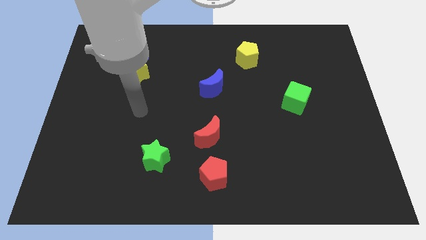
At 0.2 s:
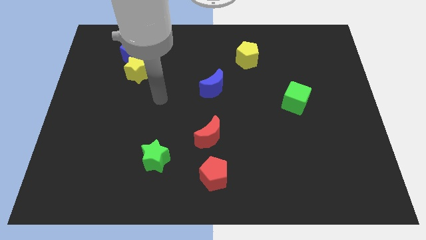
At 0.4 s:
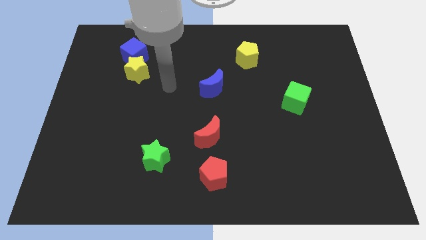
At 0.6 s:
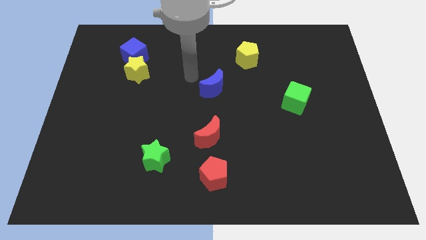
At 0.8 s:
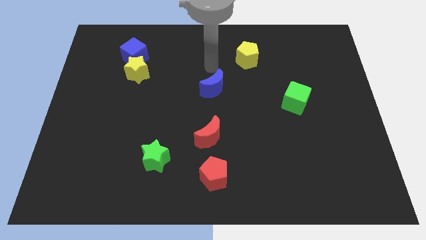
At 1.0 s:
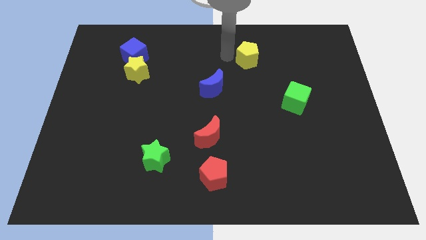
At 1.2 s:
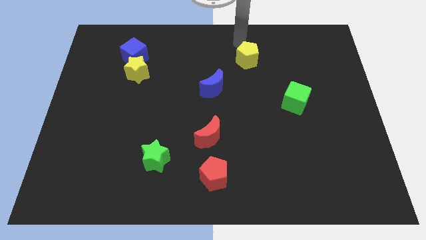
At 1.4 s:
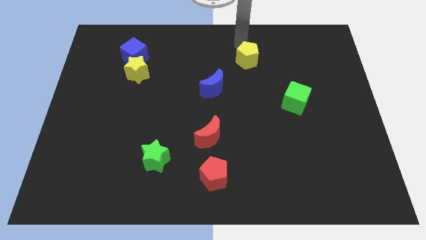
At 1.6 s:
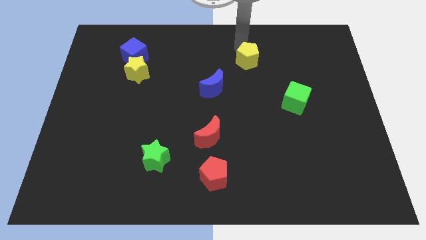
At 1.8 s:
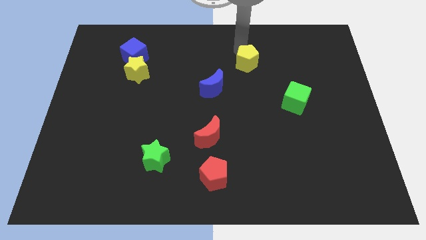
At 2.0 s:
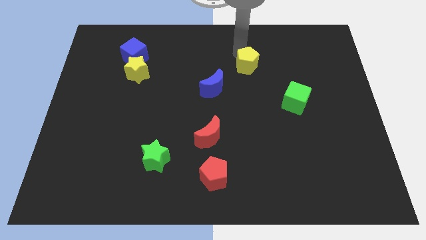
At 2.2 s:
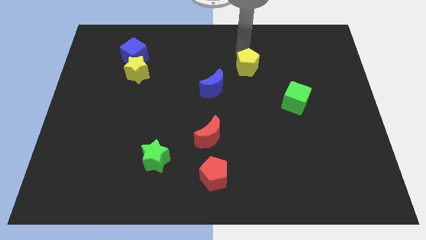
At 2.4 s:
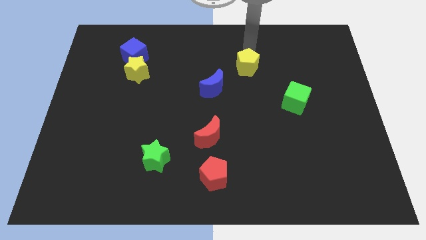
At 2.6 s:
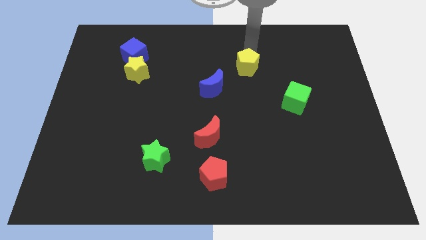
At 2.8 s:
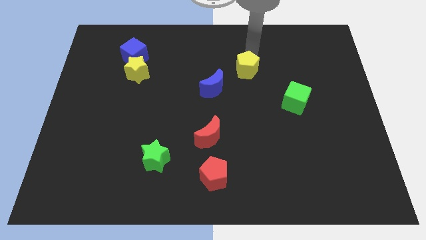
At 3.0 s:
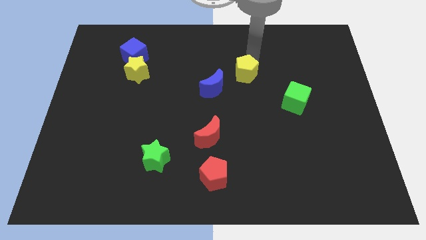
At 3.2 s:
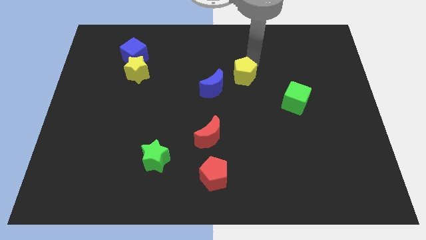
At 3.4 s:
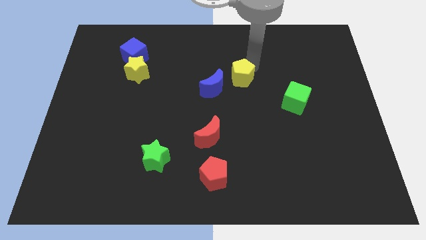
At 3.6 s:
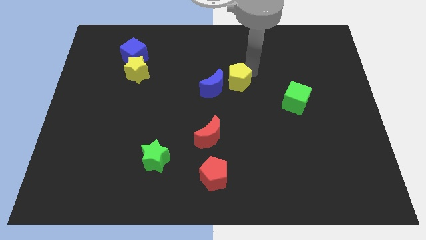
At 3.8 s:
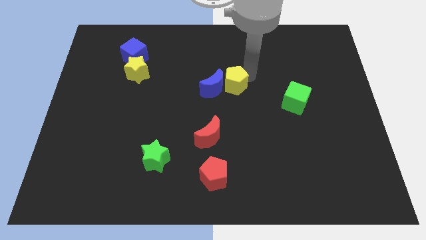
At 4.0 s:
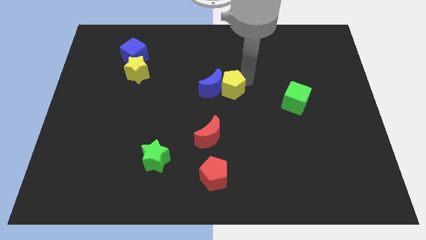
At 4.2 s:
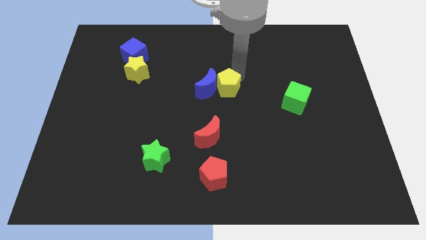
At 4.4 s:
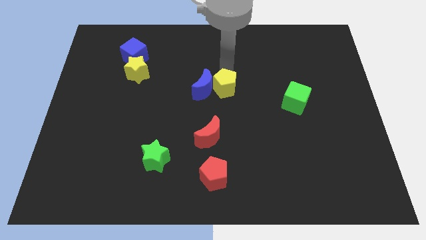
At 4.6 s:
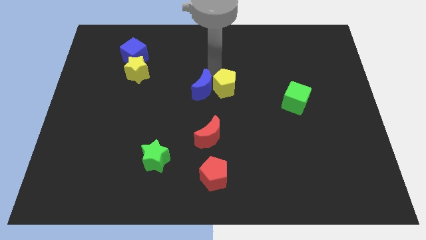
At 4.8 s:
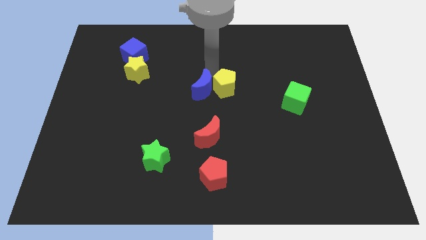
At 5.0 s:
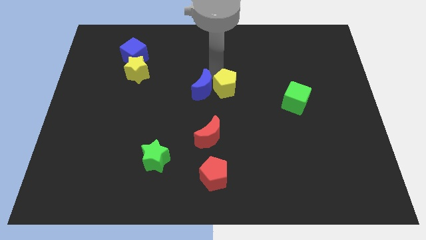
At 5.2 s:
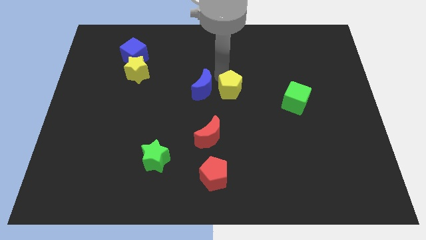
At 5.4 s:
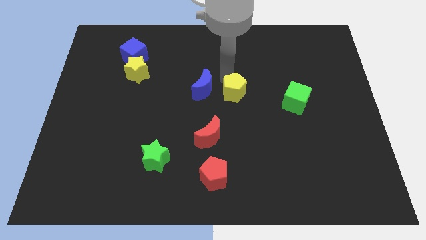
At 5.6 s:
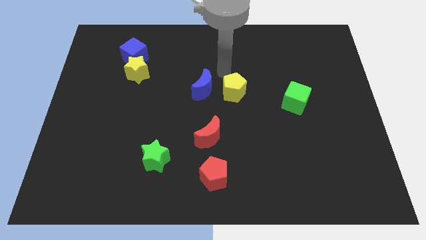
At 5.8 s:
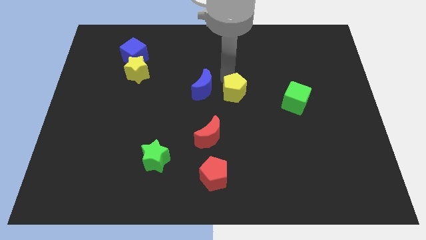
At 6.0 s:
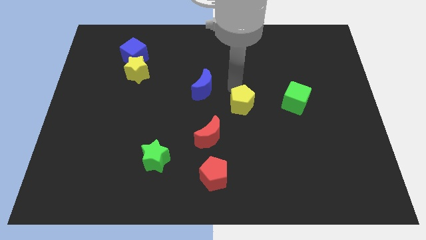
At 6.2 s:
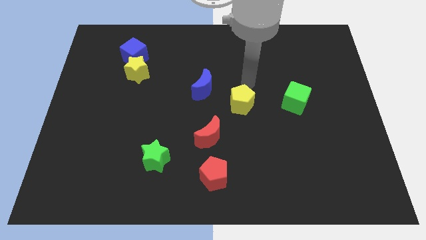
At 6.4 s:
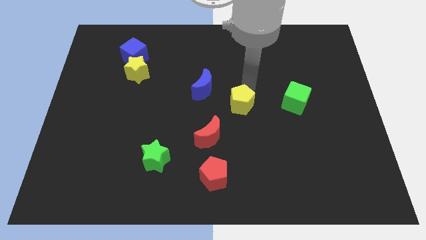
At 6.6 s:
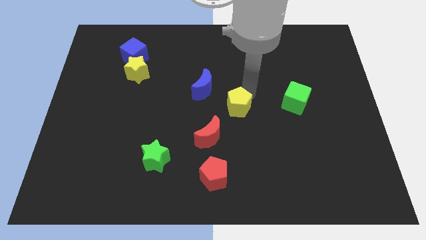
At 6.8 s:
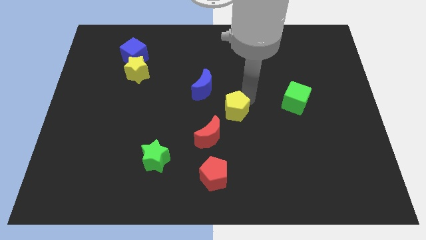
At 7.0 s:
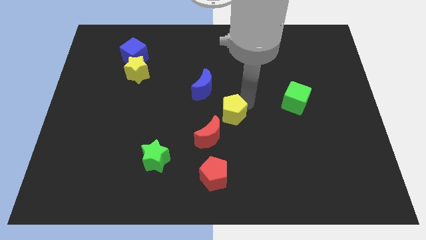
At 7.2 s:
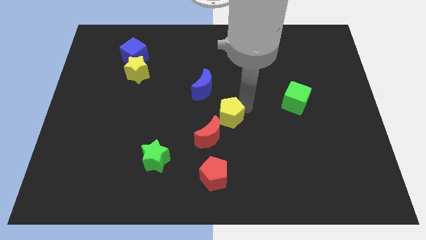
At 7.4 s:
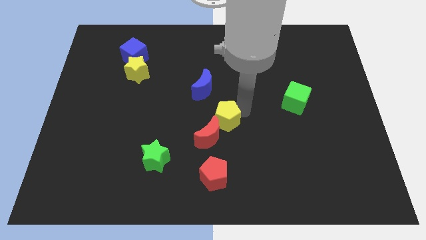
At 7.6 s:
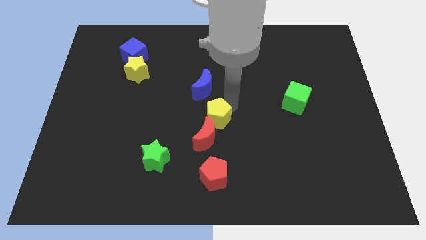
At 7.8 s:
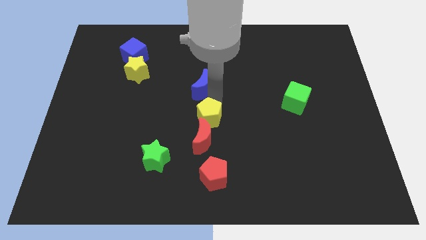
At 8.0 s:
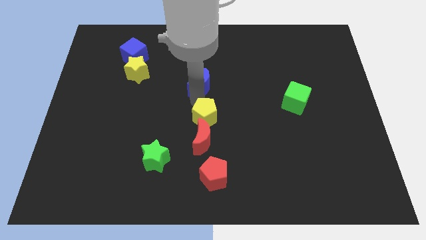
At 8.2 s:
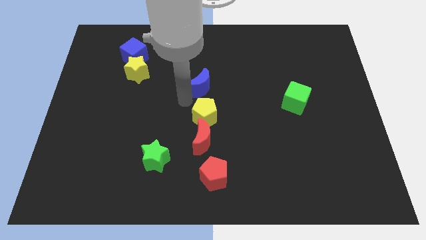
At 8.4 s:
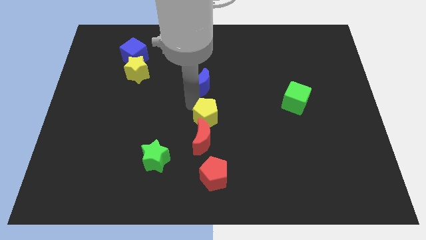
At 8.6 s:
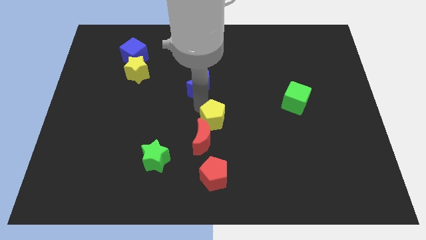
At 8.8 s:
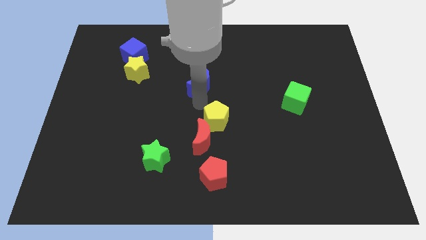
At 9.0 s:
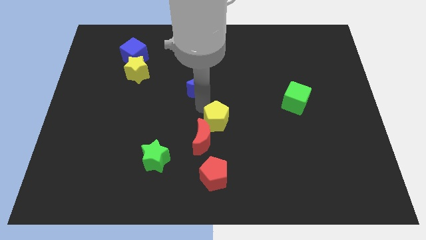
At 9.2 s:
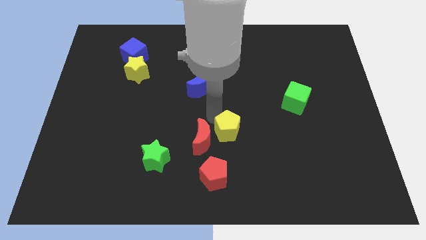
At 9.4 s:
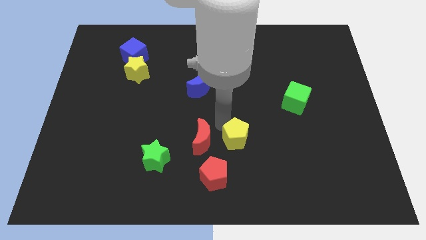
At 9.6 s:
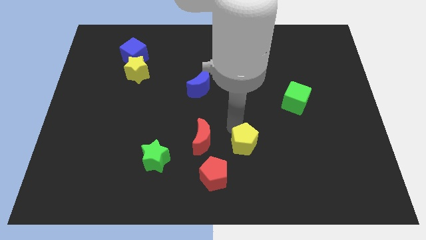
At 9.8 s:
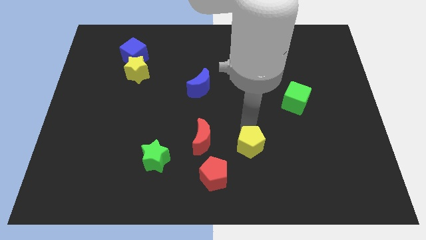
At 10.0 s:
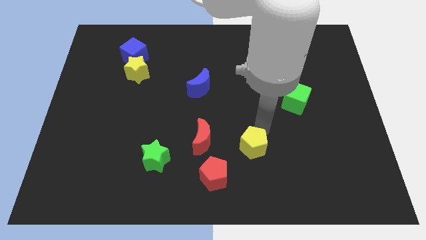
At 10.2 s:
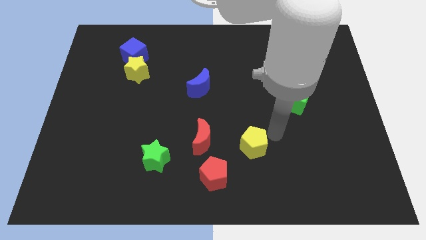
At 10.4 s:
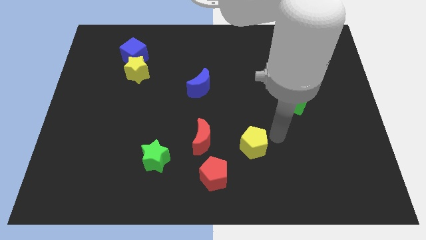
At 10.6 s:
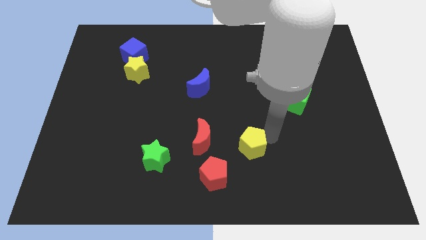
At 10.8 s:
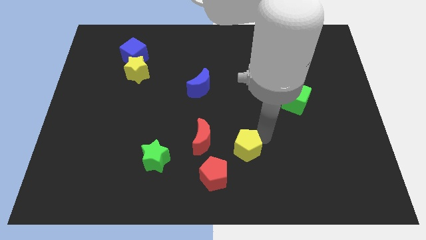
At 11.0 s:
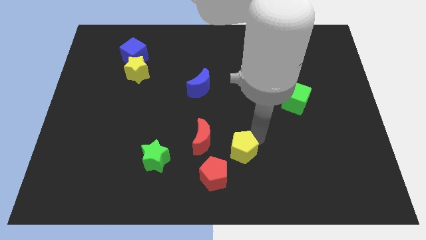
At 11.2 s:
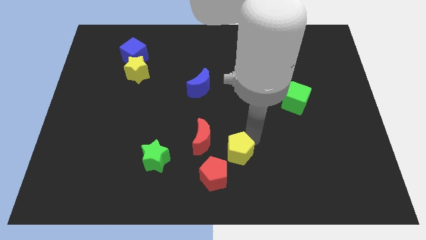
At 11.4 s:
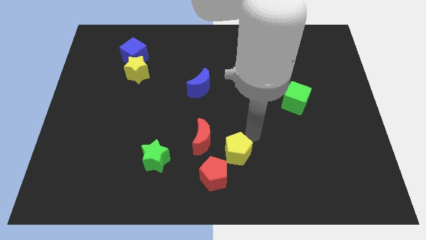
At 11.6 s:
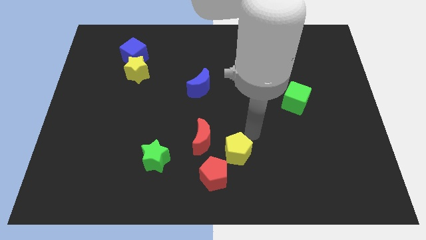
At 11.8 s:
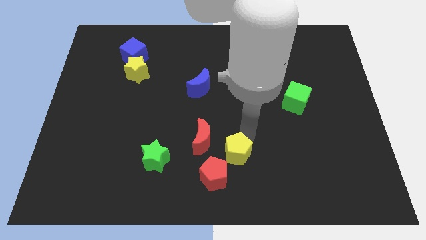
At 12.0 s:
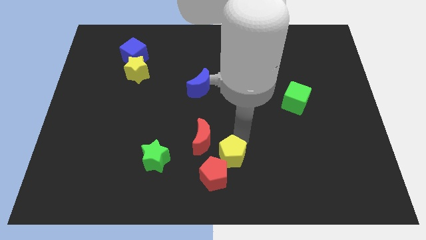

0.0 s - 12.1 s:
push the yellow pentagon next to the red pentagon

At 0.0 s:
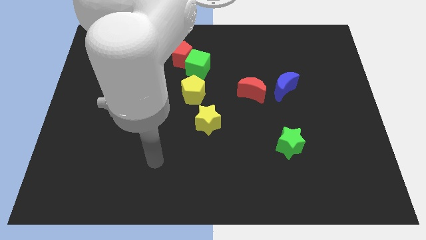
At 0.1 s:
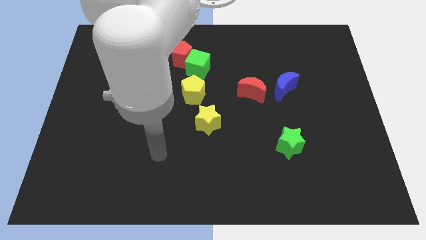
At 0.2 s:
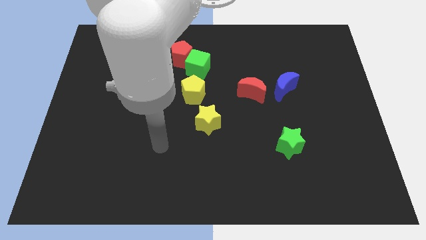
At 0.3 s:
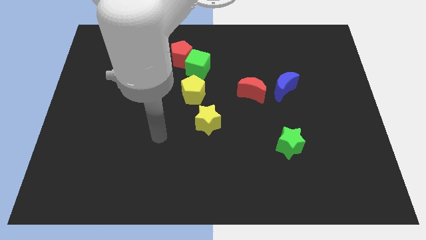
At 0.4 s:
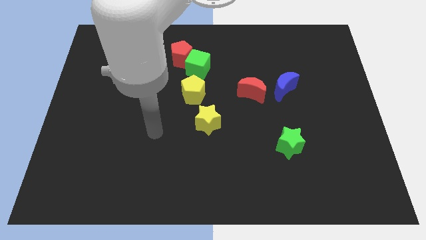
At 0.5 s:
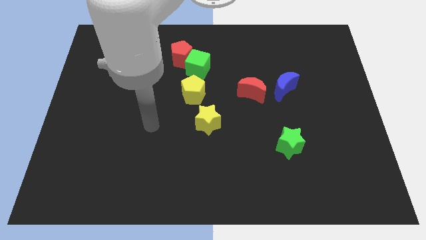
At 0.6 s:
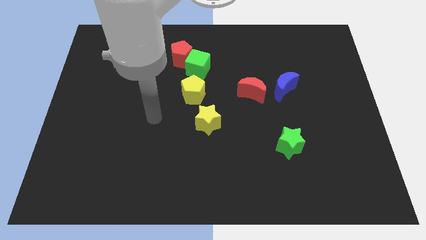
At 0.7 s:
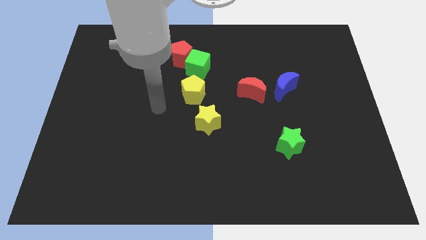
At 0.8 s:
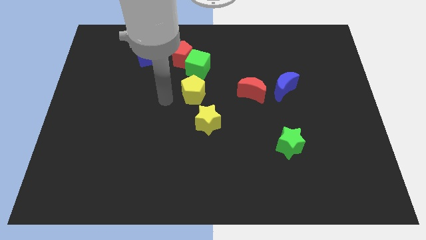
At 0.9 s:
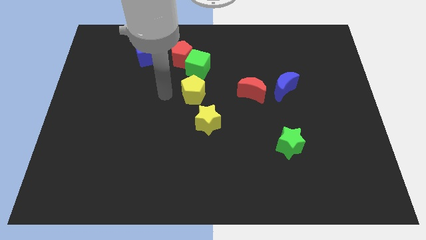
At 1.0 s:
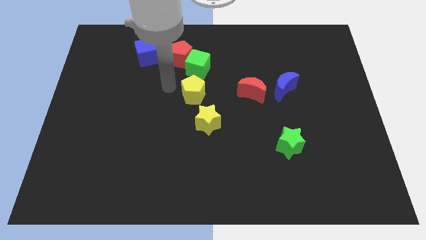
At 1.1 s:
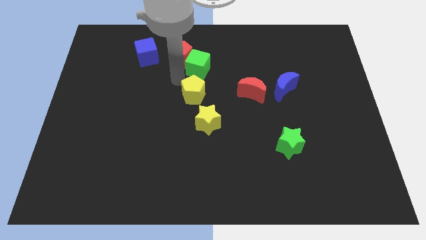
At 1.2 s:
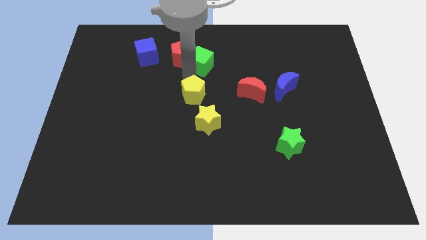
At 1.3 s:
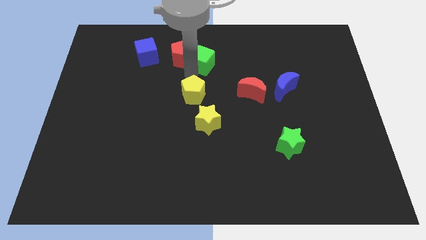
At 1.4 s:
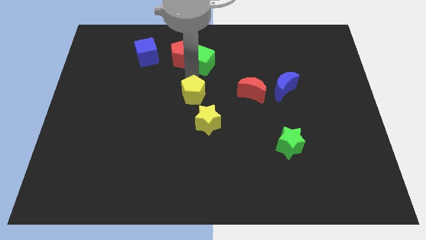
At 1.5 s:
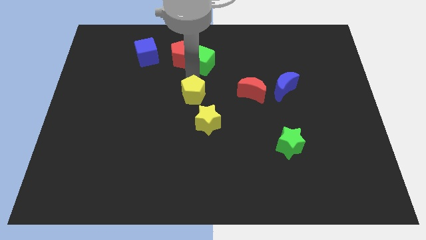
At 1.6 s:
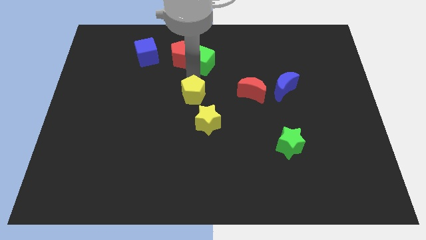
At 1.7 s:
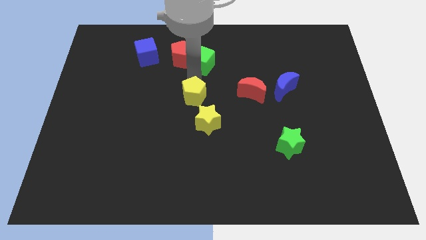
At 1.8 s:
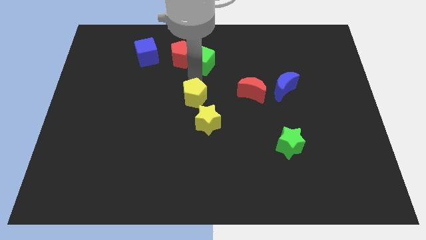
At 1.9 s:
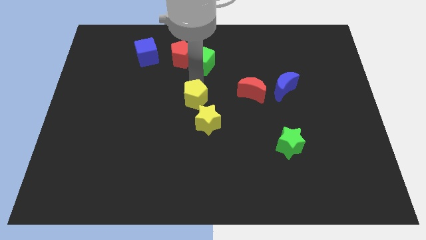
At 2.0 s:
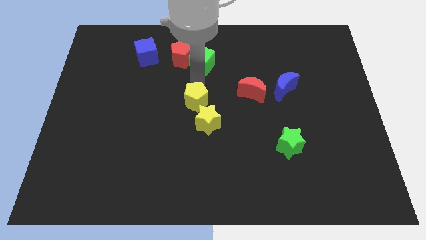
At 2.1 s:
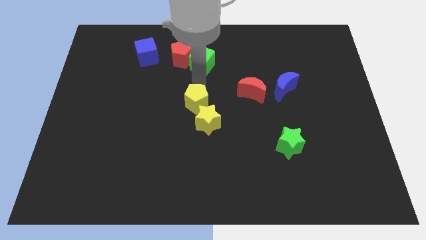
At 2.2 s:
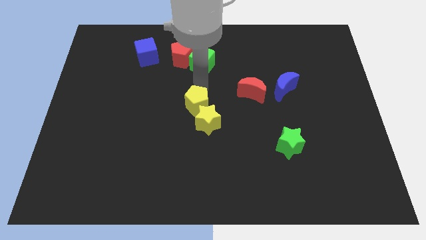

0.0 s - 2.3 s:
push the yellow pentagon close to the yellow star
